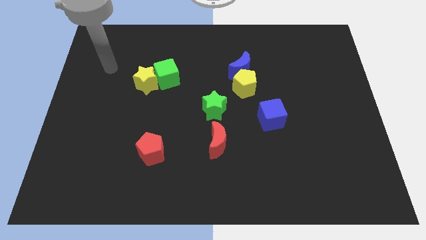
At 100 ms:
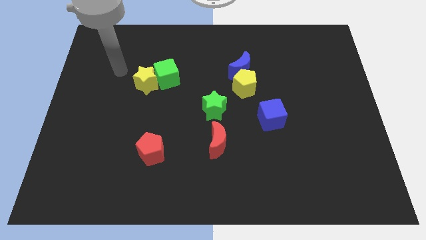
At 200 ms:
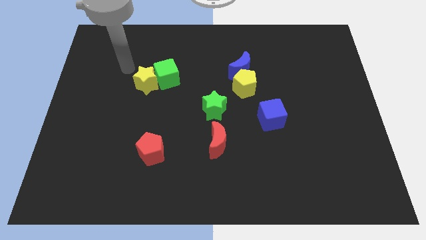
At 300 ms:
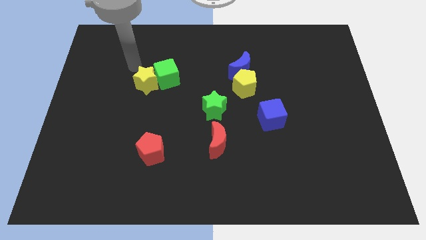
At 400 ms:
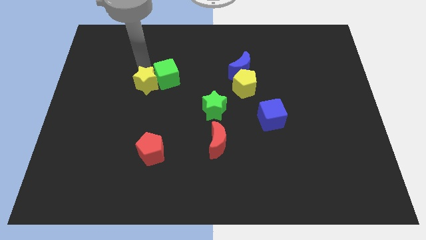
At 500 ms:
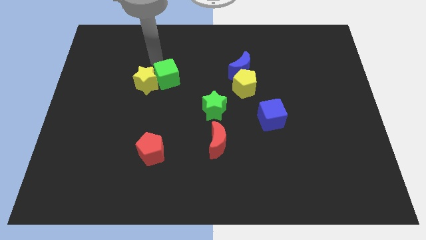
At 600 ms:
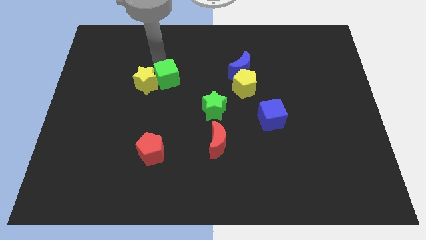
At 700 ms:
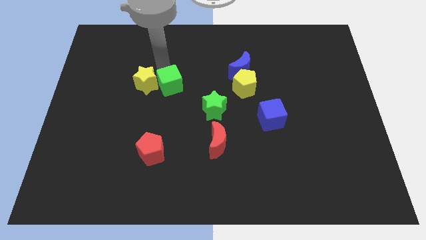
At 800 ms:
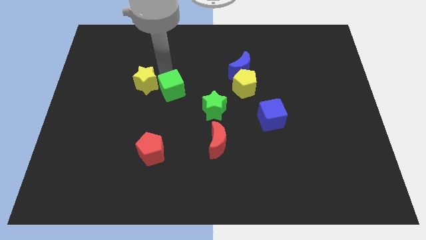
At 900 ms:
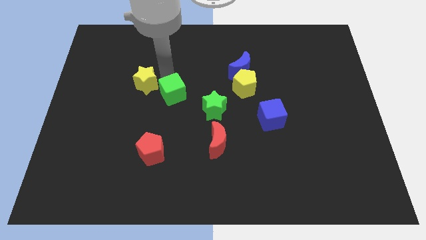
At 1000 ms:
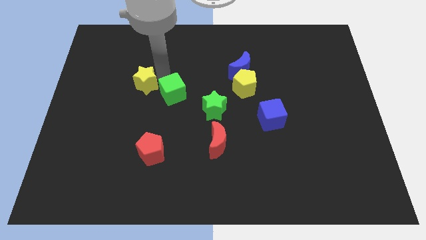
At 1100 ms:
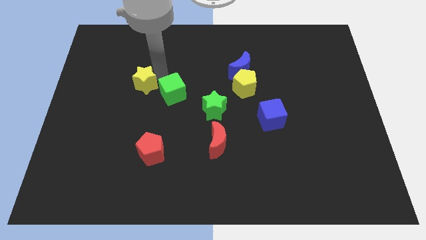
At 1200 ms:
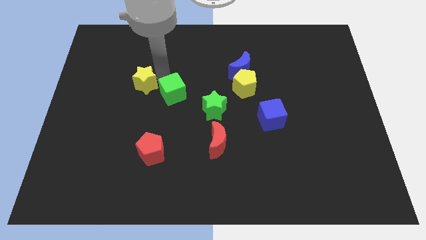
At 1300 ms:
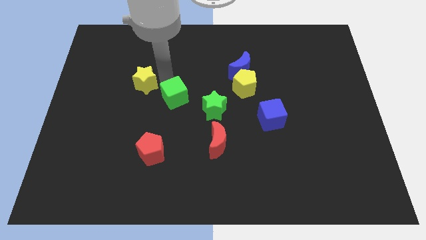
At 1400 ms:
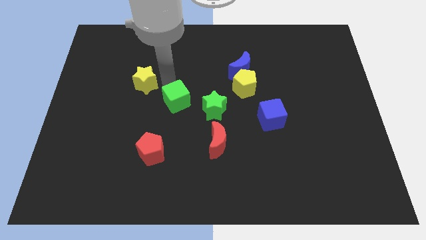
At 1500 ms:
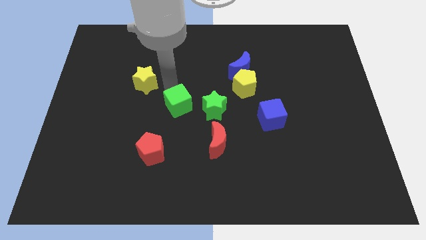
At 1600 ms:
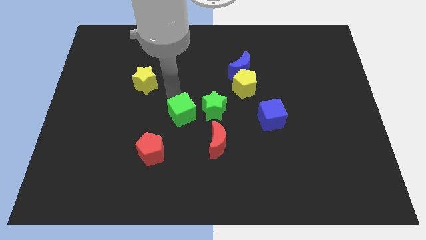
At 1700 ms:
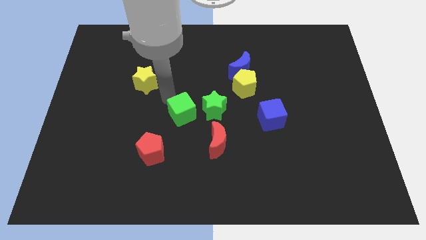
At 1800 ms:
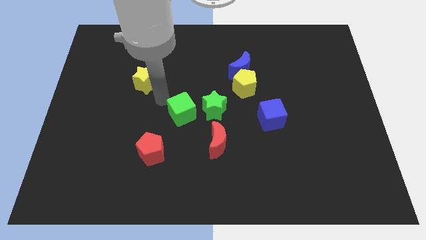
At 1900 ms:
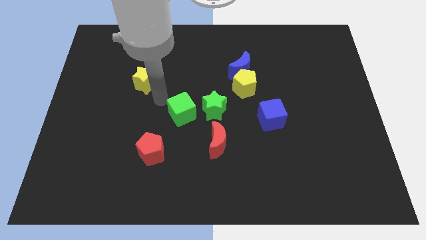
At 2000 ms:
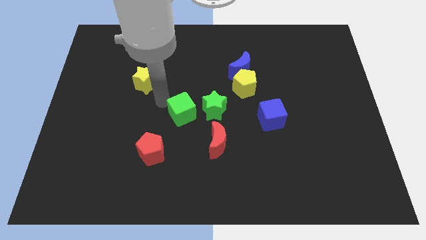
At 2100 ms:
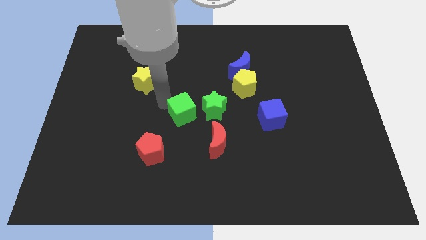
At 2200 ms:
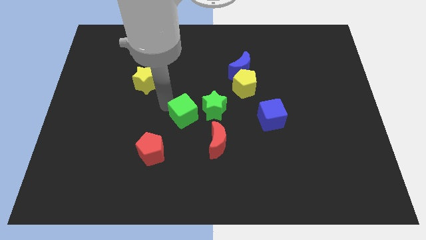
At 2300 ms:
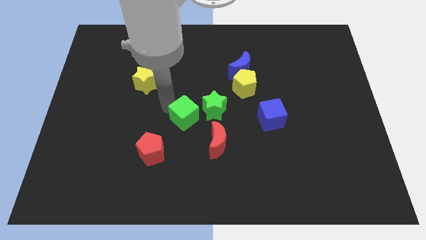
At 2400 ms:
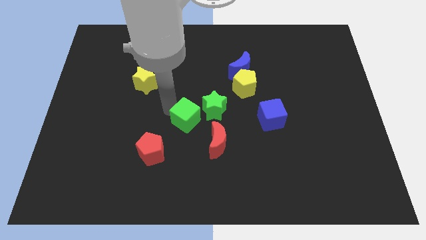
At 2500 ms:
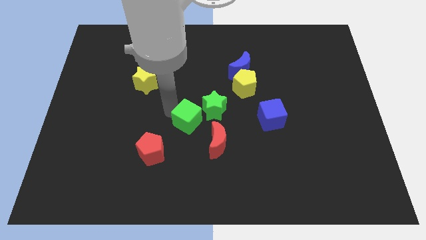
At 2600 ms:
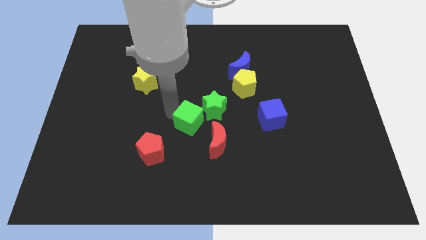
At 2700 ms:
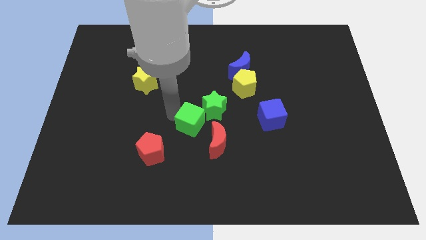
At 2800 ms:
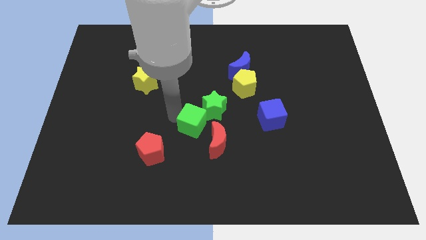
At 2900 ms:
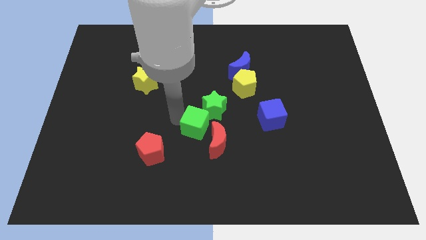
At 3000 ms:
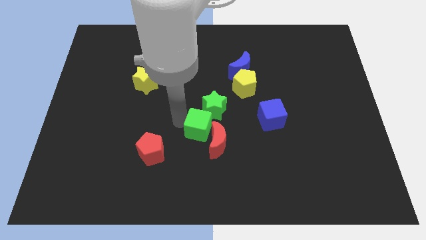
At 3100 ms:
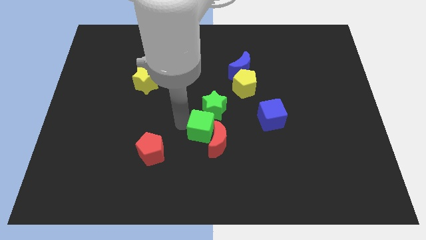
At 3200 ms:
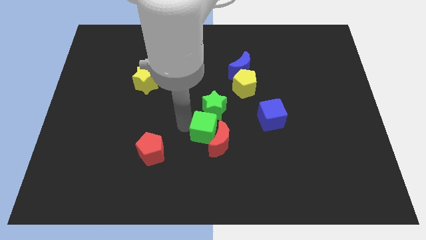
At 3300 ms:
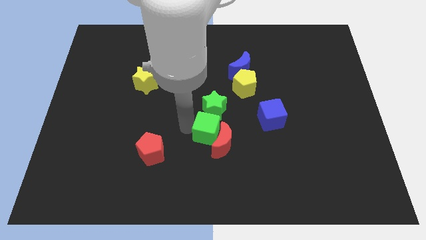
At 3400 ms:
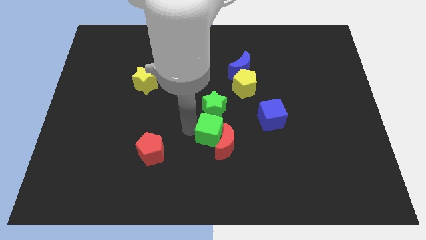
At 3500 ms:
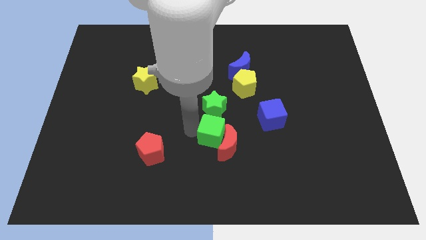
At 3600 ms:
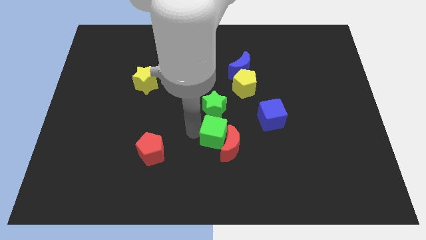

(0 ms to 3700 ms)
slide the green cube down and to the right diagonally

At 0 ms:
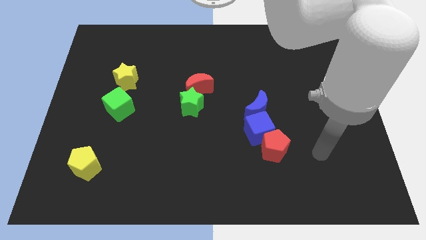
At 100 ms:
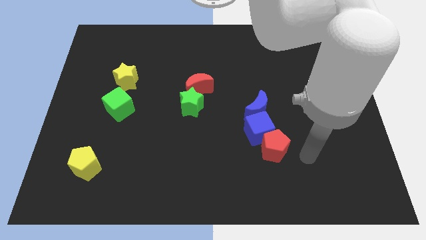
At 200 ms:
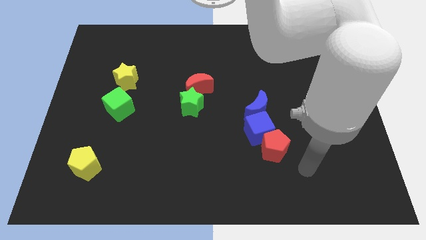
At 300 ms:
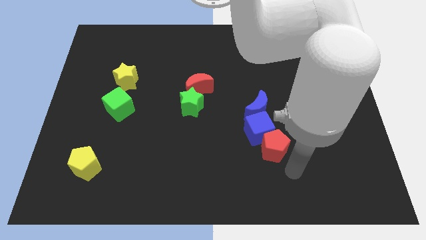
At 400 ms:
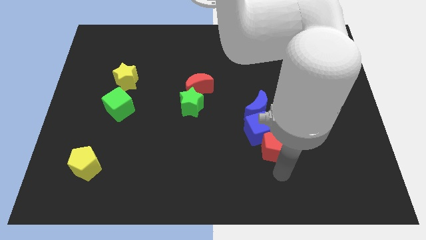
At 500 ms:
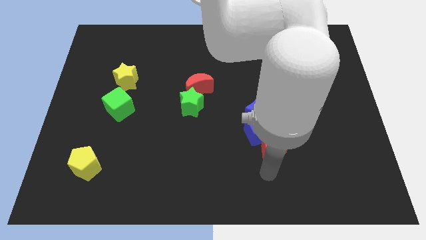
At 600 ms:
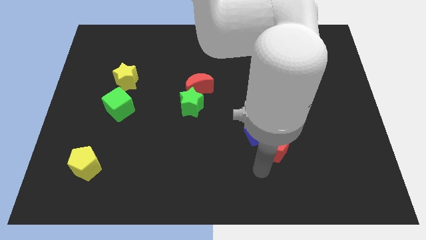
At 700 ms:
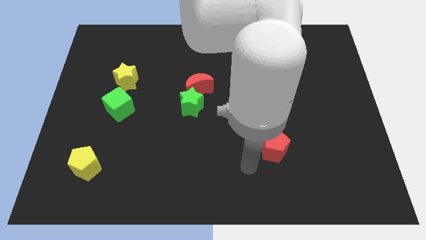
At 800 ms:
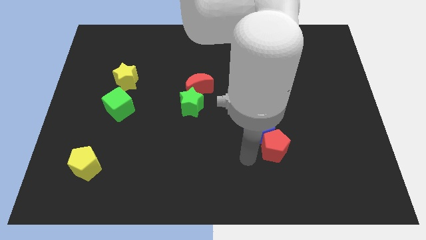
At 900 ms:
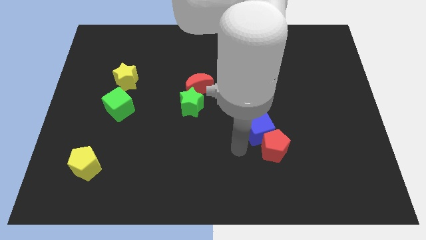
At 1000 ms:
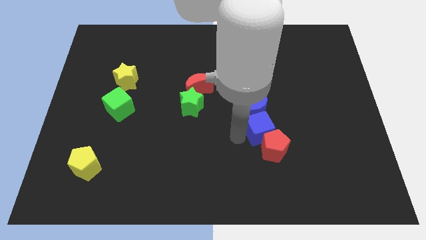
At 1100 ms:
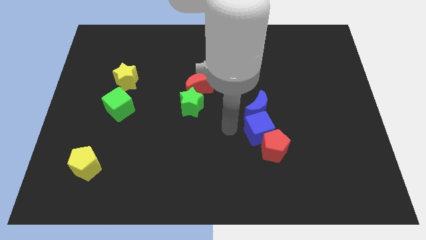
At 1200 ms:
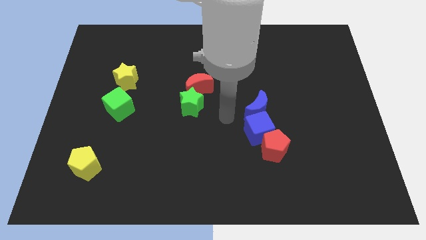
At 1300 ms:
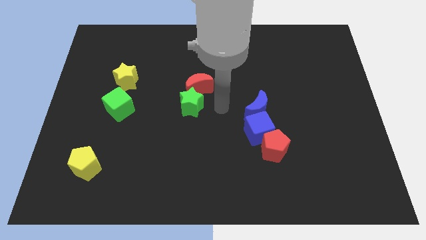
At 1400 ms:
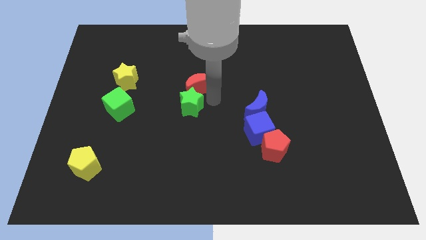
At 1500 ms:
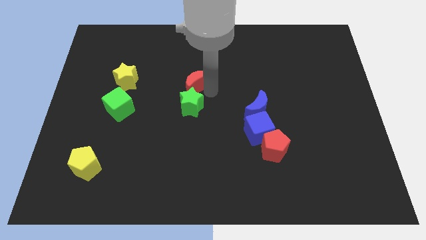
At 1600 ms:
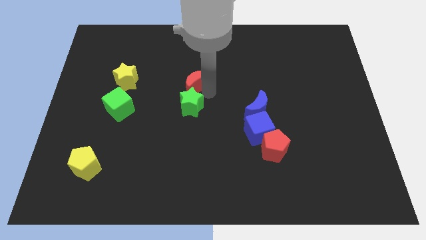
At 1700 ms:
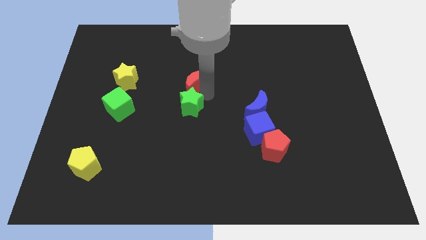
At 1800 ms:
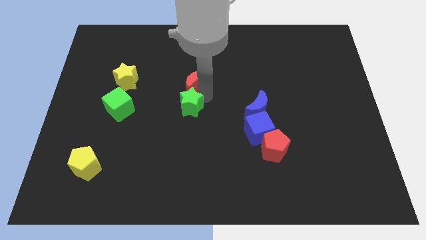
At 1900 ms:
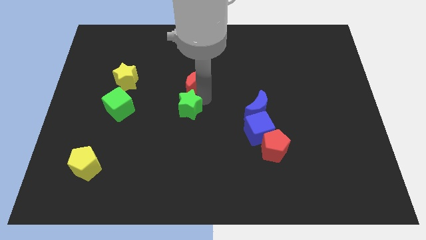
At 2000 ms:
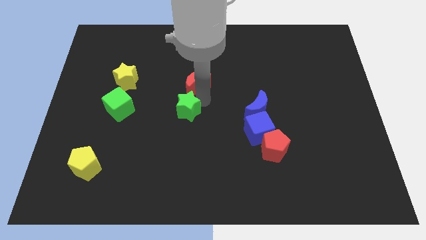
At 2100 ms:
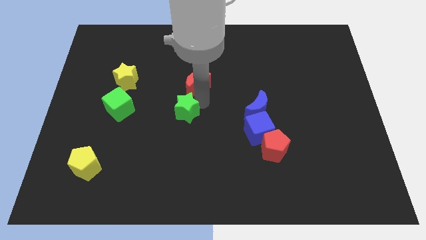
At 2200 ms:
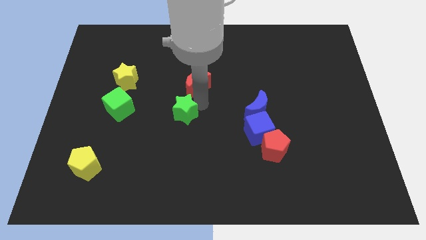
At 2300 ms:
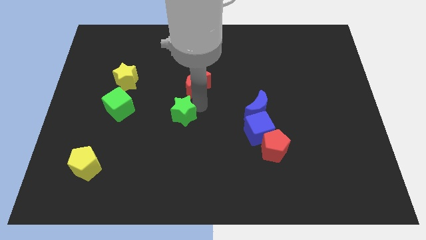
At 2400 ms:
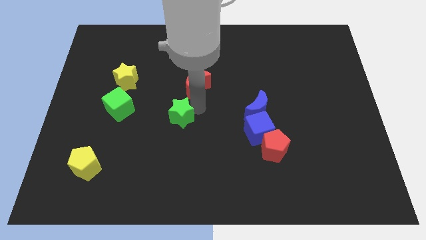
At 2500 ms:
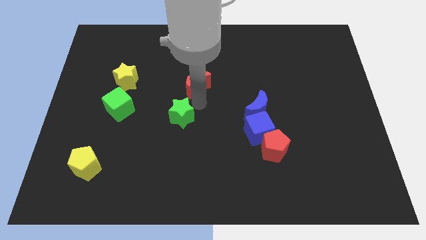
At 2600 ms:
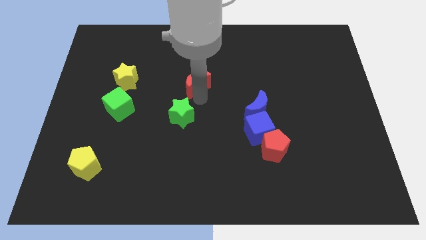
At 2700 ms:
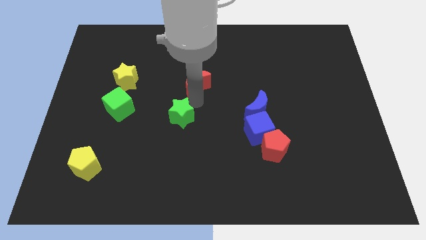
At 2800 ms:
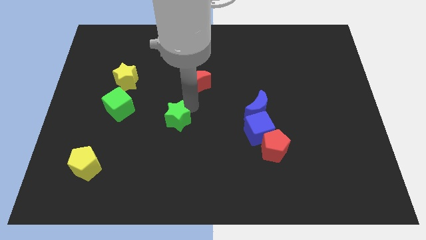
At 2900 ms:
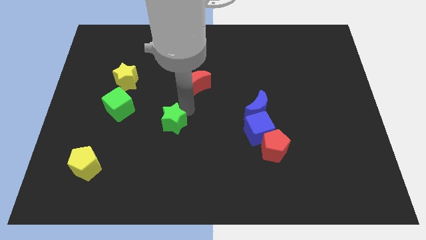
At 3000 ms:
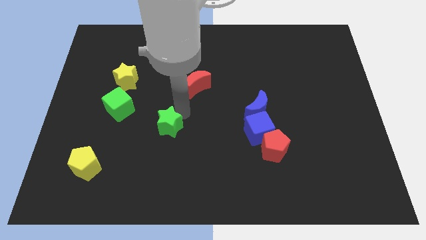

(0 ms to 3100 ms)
slide the green star a little downwards and then left

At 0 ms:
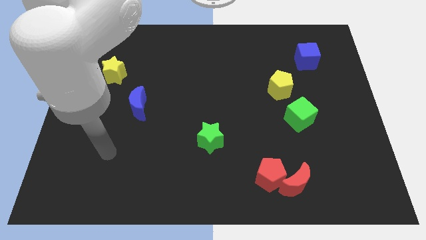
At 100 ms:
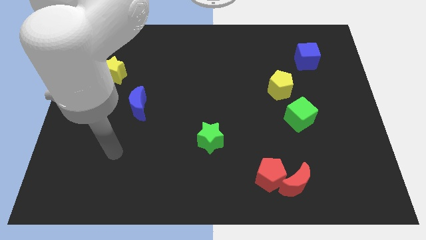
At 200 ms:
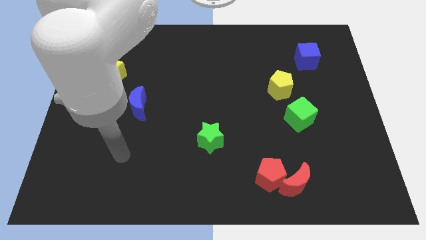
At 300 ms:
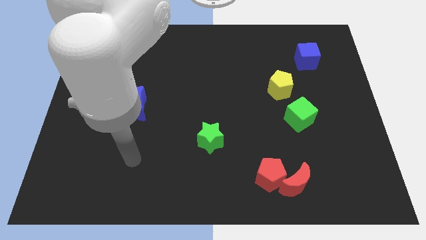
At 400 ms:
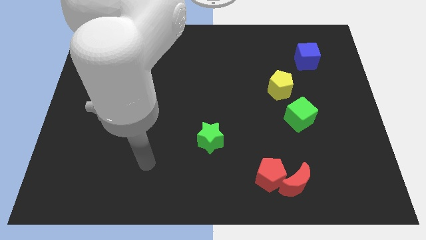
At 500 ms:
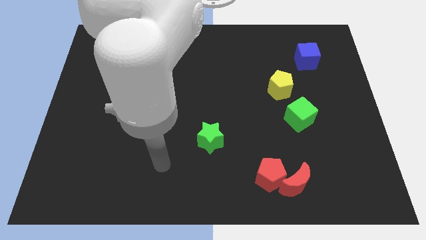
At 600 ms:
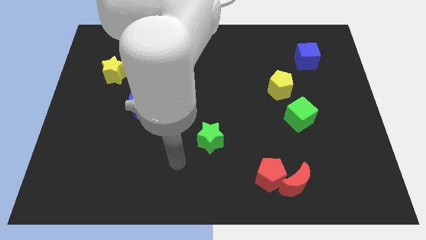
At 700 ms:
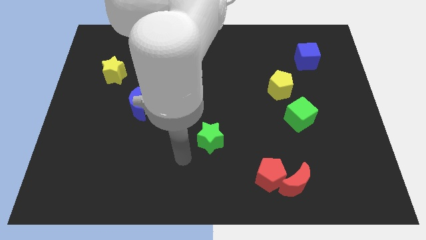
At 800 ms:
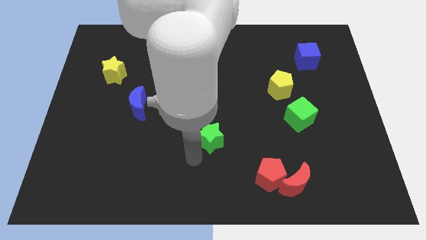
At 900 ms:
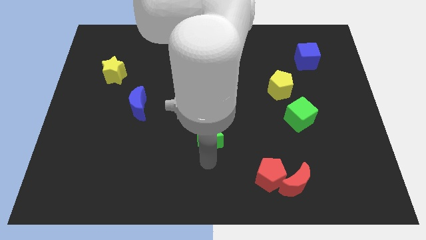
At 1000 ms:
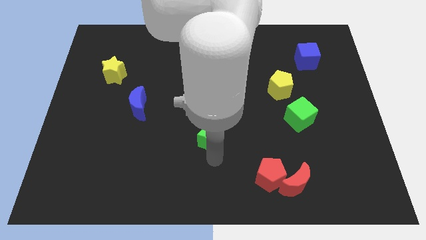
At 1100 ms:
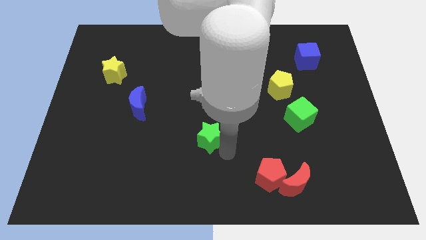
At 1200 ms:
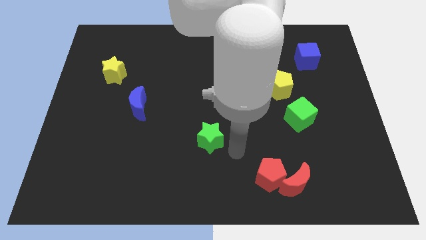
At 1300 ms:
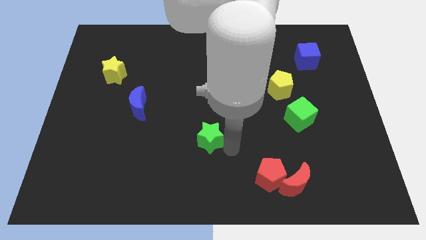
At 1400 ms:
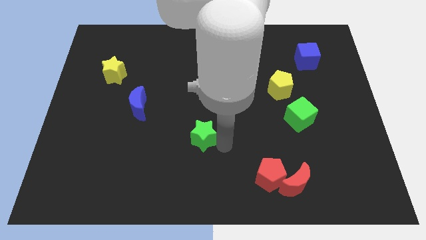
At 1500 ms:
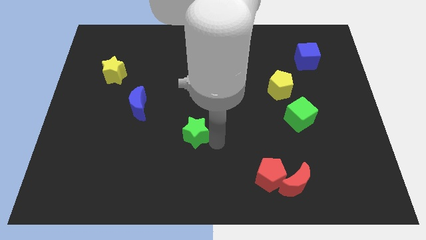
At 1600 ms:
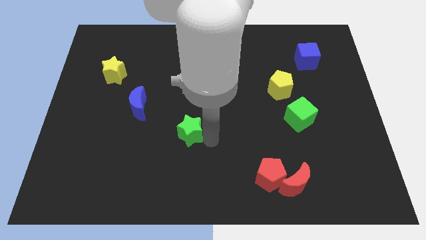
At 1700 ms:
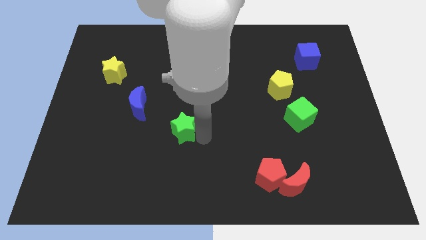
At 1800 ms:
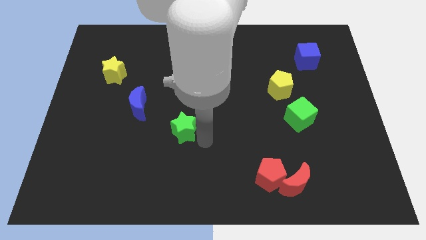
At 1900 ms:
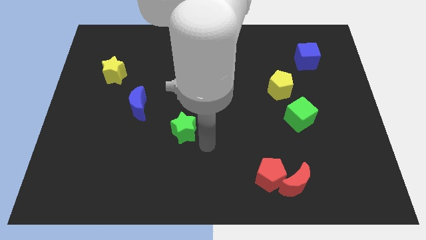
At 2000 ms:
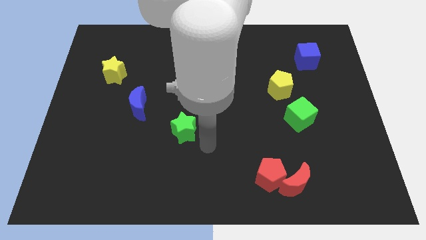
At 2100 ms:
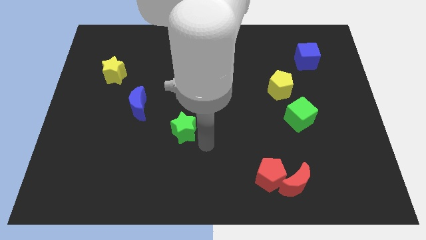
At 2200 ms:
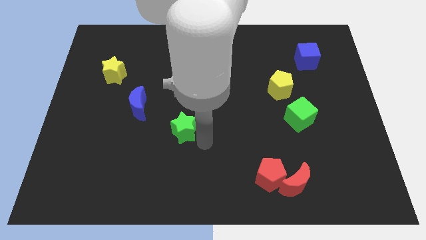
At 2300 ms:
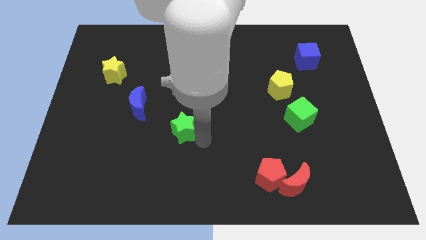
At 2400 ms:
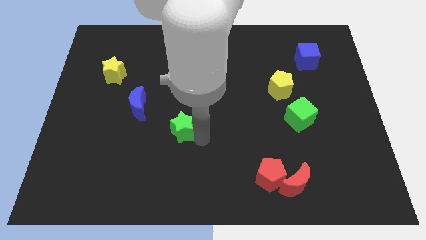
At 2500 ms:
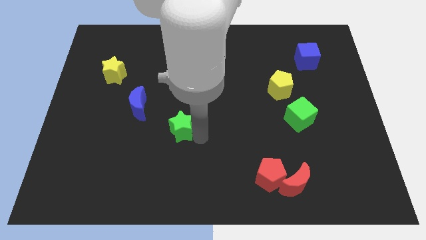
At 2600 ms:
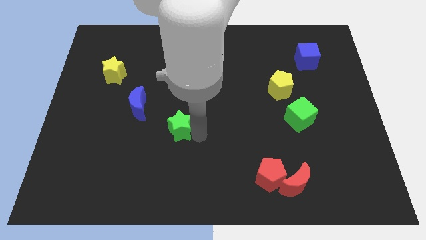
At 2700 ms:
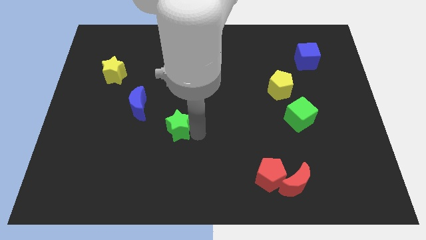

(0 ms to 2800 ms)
slide the green star up and left somewhat
